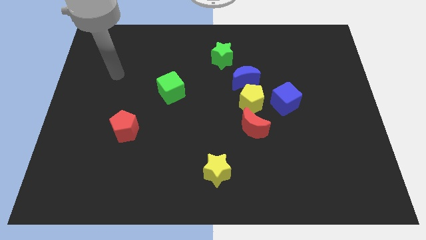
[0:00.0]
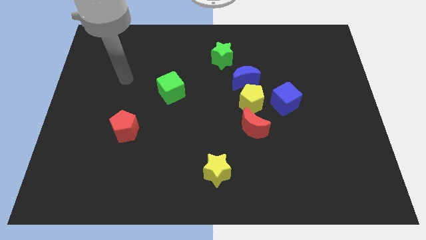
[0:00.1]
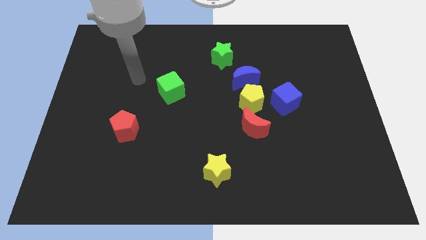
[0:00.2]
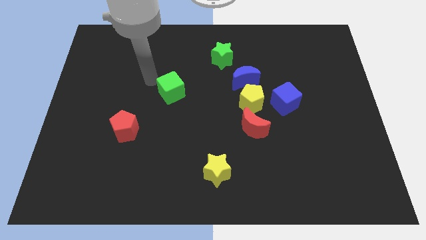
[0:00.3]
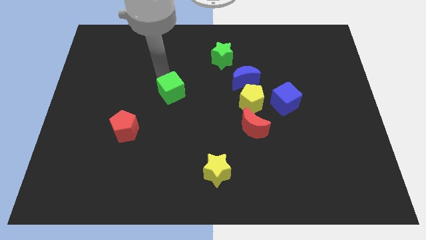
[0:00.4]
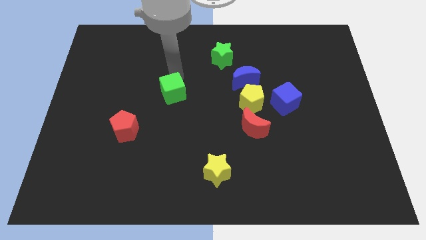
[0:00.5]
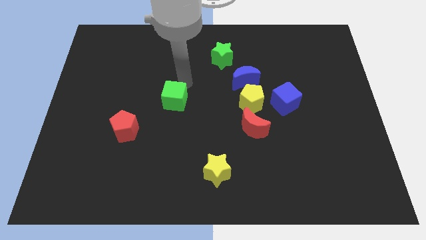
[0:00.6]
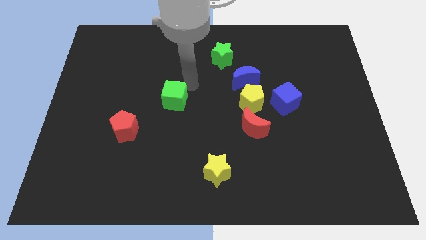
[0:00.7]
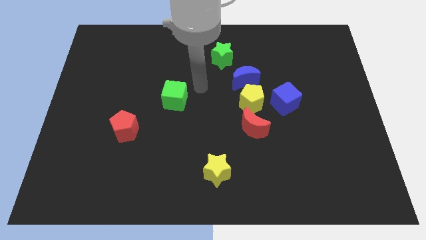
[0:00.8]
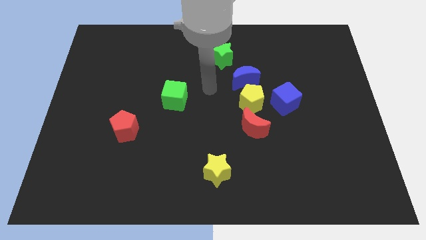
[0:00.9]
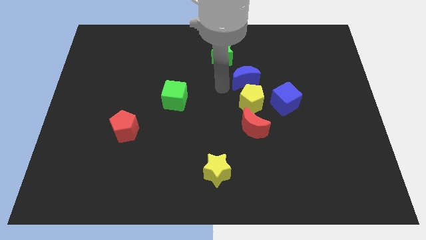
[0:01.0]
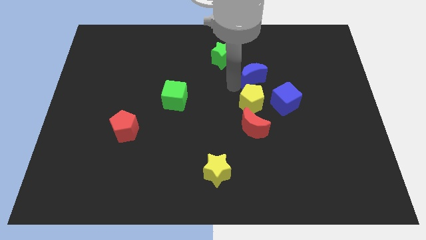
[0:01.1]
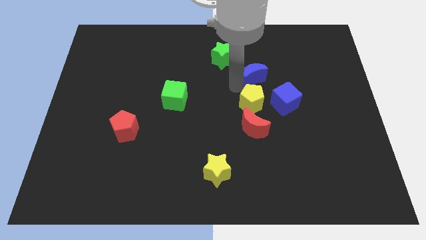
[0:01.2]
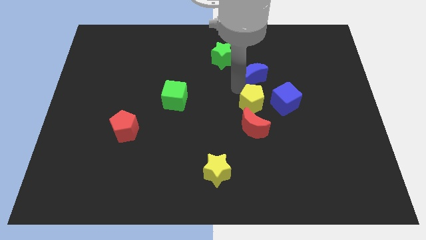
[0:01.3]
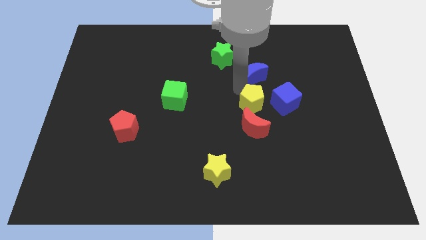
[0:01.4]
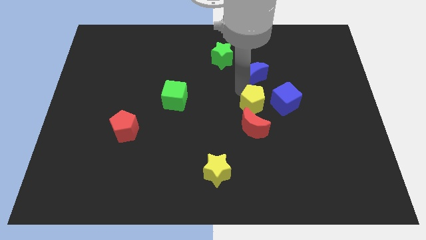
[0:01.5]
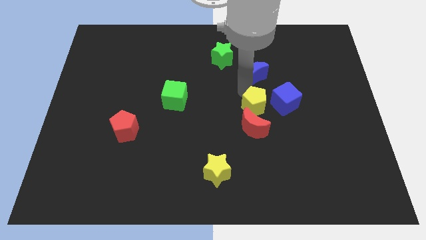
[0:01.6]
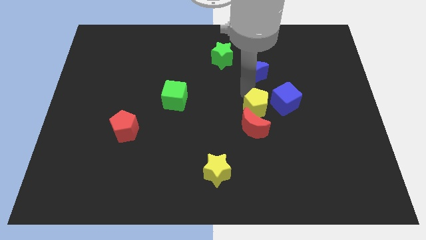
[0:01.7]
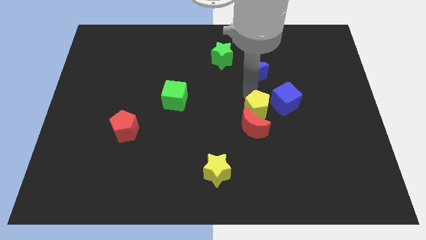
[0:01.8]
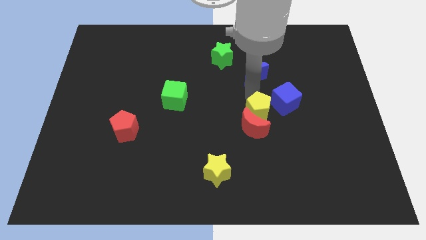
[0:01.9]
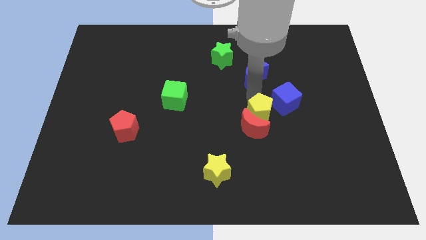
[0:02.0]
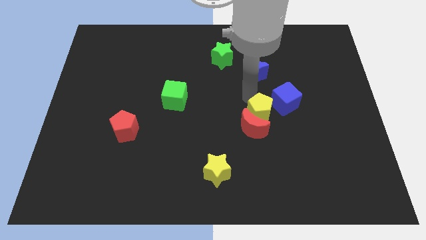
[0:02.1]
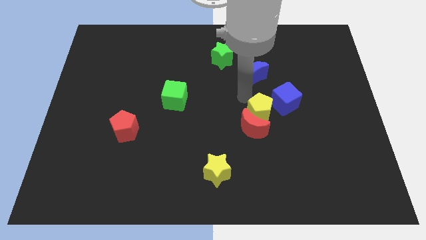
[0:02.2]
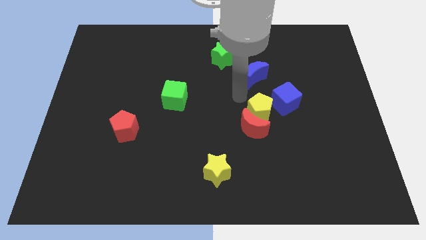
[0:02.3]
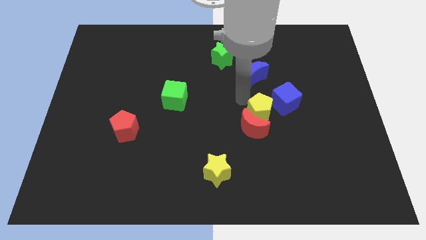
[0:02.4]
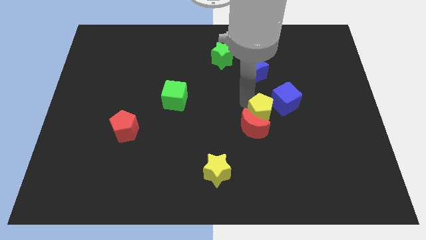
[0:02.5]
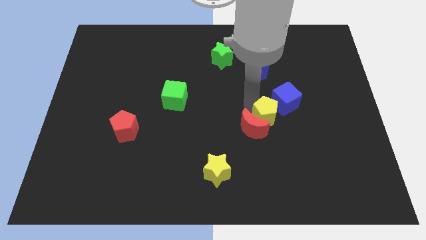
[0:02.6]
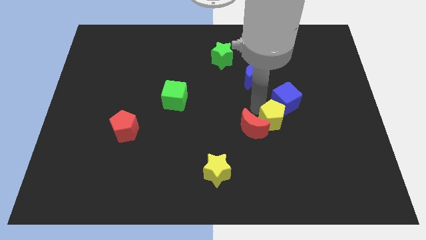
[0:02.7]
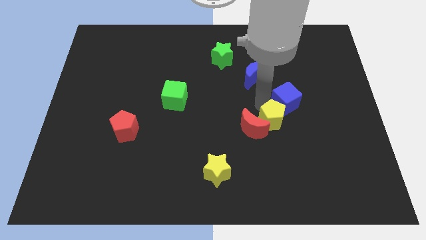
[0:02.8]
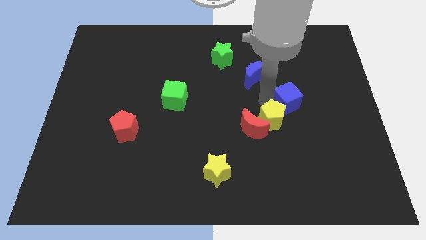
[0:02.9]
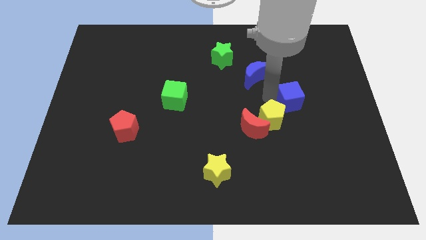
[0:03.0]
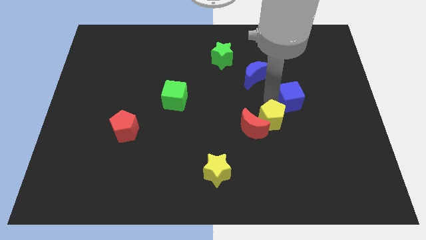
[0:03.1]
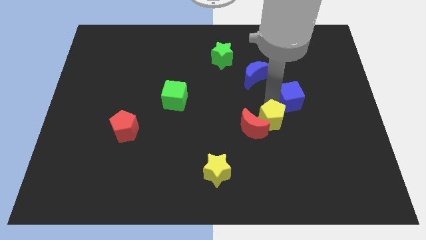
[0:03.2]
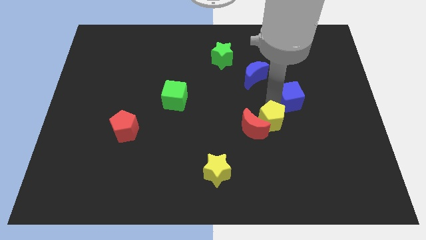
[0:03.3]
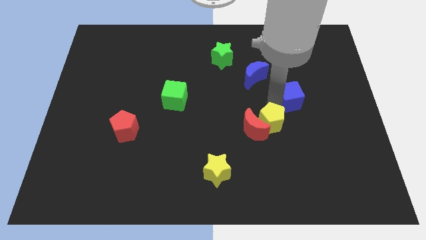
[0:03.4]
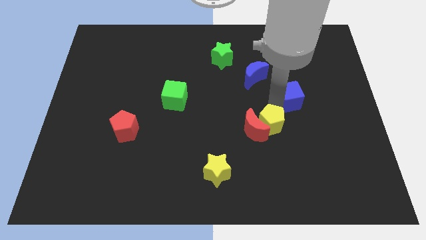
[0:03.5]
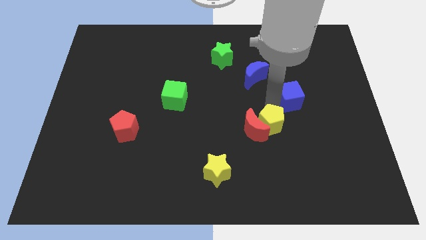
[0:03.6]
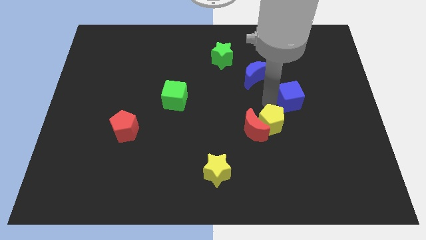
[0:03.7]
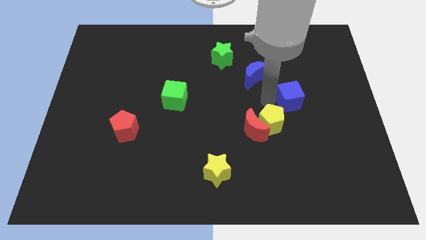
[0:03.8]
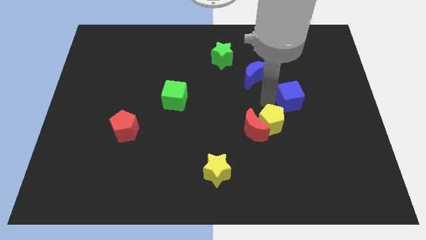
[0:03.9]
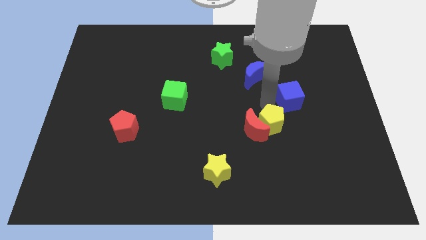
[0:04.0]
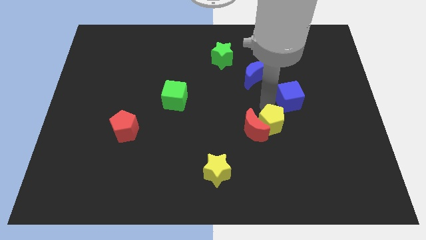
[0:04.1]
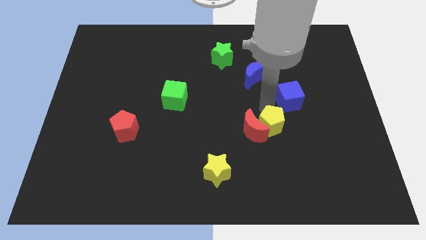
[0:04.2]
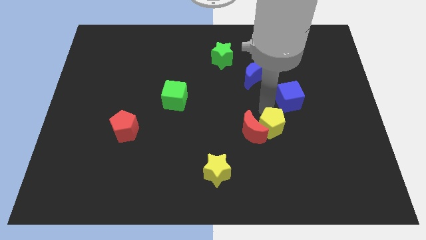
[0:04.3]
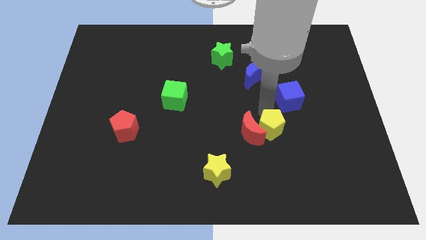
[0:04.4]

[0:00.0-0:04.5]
slightly push the yellow pentagon downwards

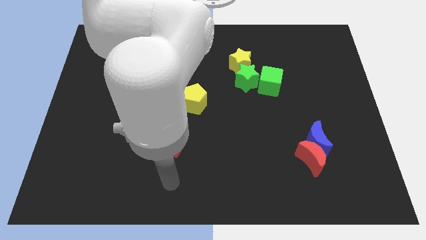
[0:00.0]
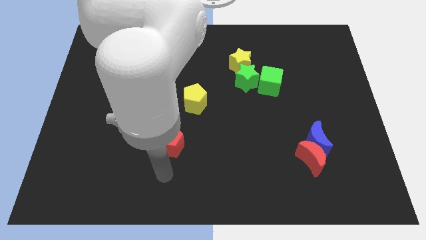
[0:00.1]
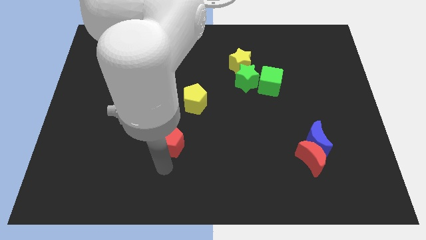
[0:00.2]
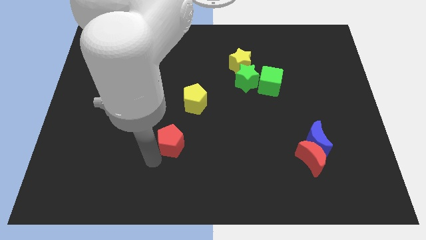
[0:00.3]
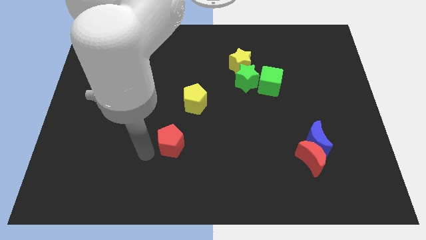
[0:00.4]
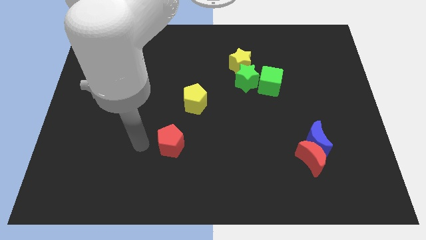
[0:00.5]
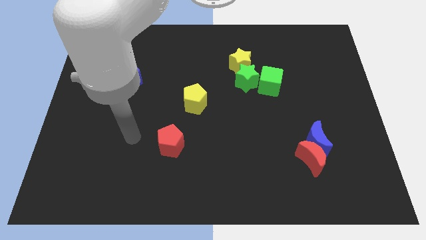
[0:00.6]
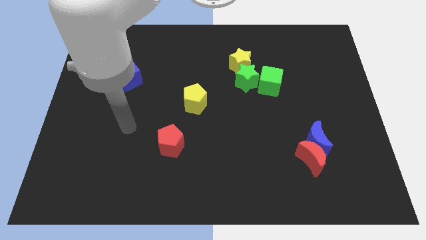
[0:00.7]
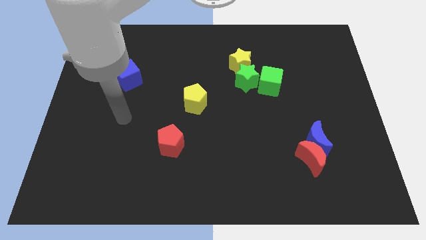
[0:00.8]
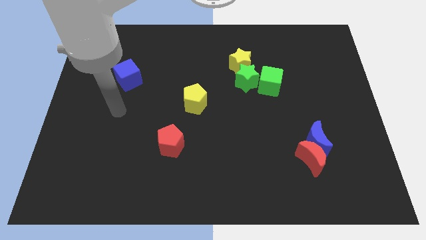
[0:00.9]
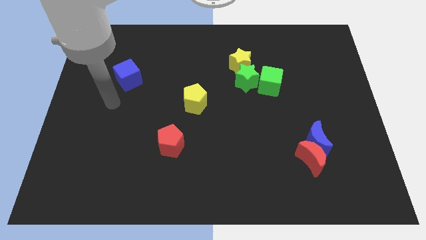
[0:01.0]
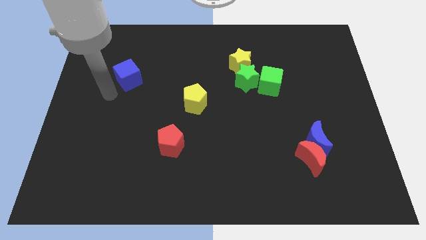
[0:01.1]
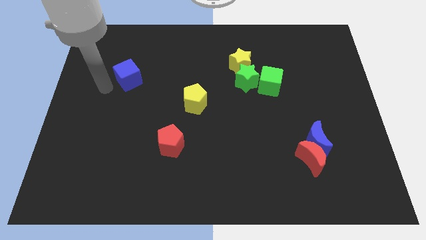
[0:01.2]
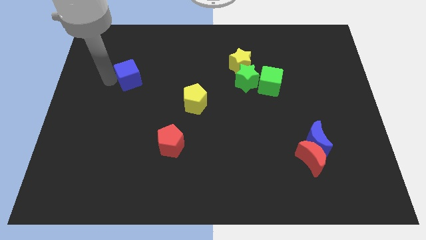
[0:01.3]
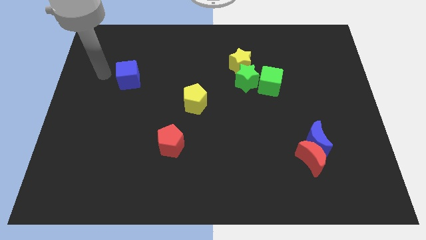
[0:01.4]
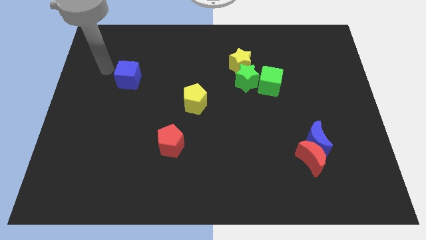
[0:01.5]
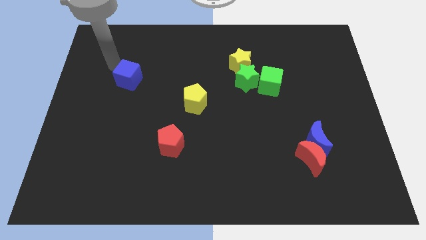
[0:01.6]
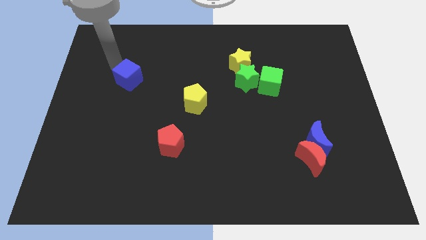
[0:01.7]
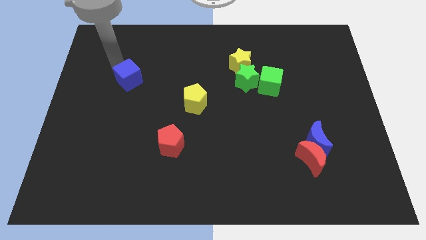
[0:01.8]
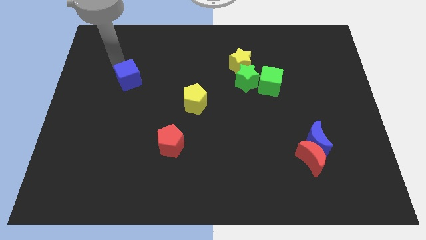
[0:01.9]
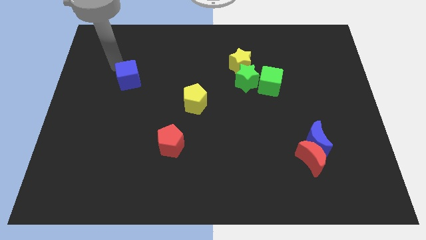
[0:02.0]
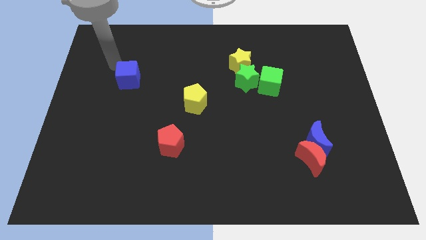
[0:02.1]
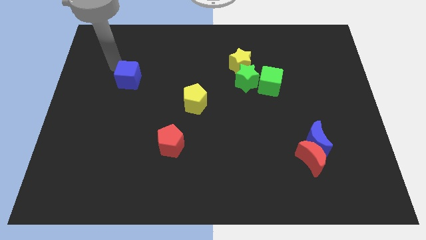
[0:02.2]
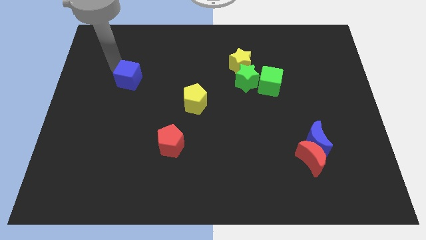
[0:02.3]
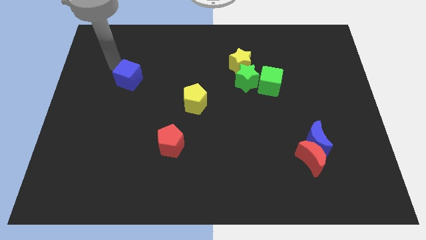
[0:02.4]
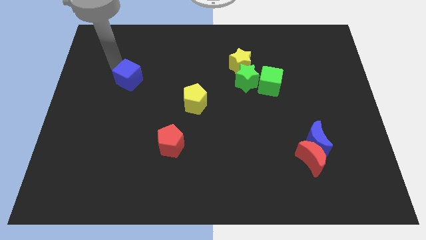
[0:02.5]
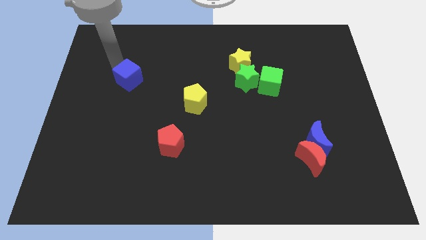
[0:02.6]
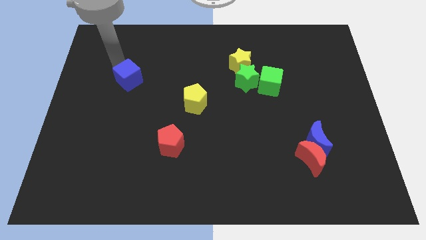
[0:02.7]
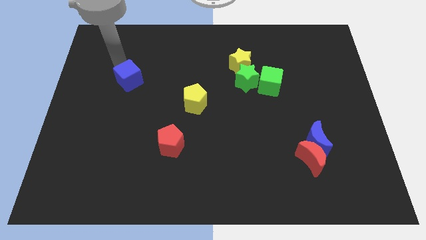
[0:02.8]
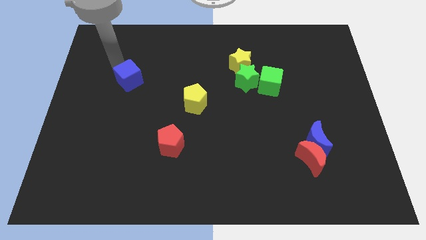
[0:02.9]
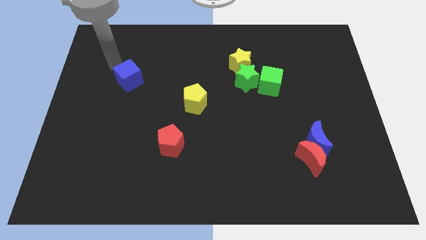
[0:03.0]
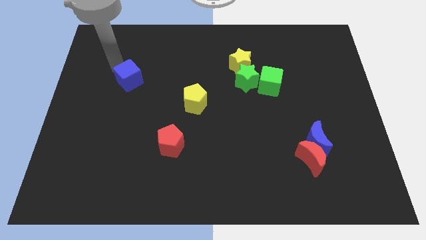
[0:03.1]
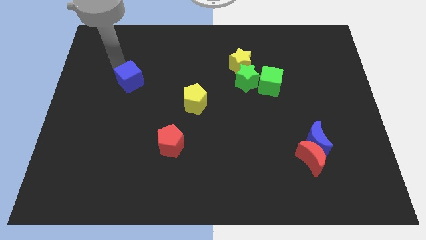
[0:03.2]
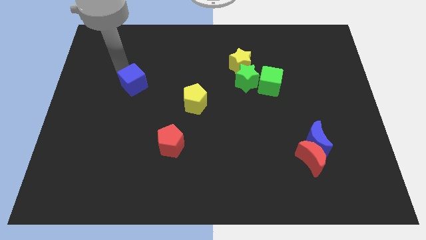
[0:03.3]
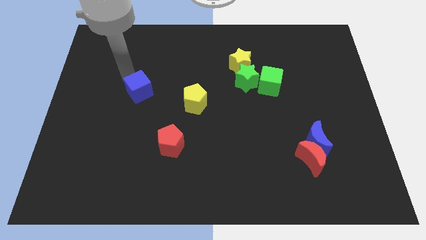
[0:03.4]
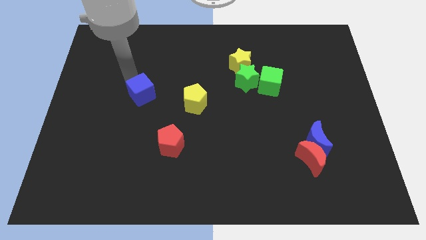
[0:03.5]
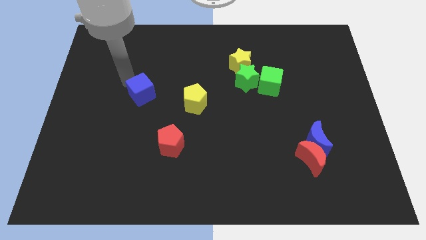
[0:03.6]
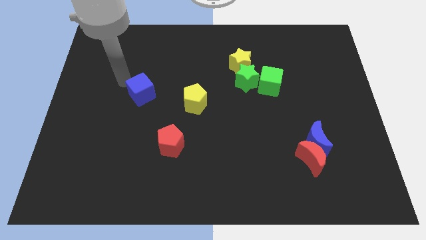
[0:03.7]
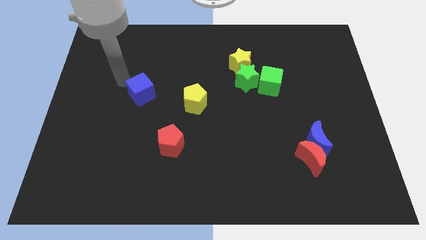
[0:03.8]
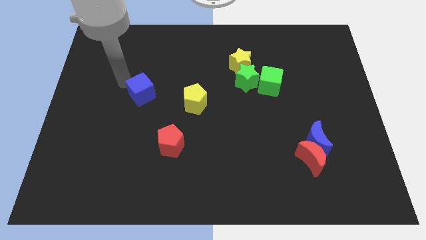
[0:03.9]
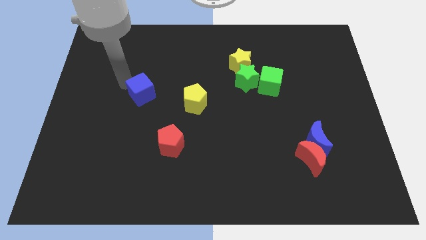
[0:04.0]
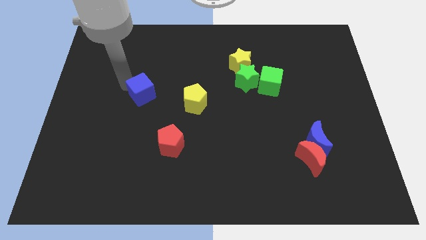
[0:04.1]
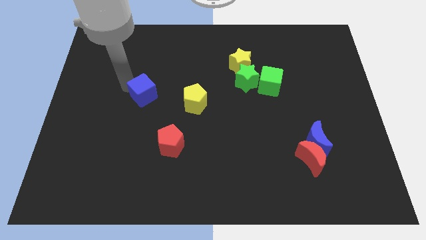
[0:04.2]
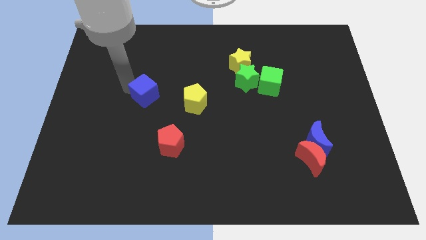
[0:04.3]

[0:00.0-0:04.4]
slightly move the blue cube diagonally downwards and to the right
